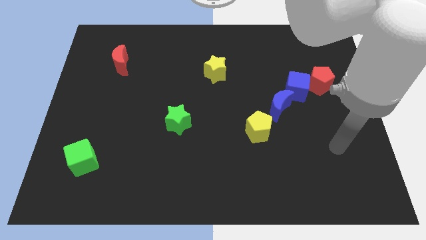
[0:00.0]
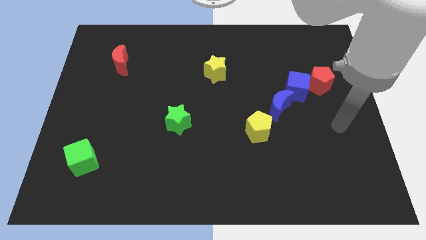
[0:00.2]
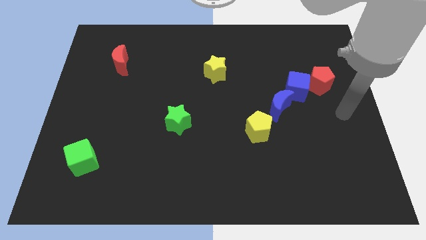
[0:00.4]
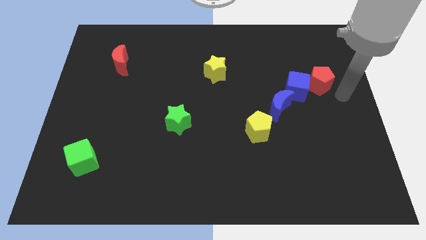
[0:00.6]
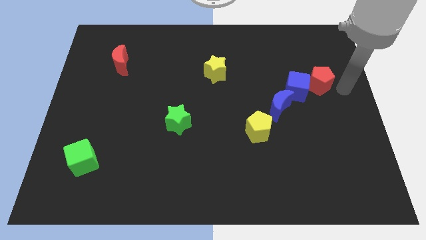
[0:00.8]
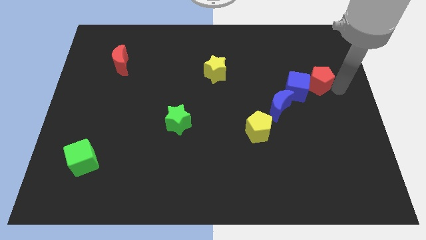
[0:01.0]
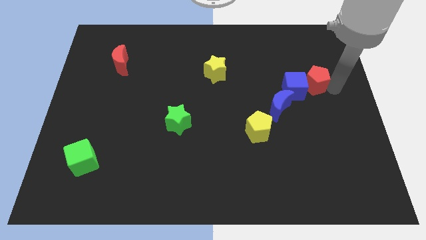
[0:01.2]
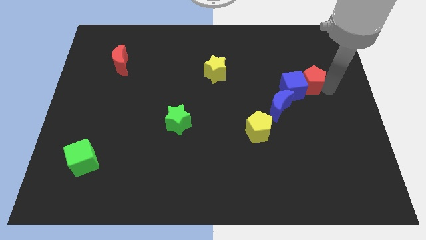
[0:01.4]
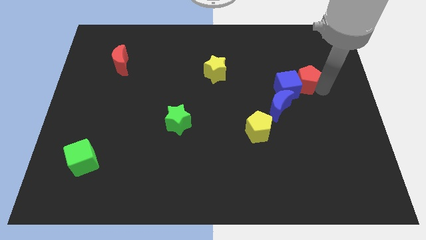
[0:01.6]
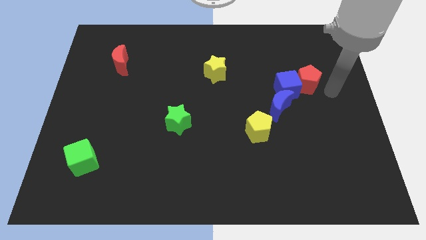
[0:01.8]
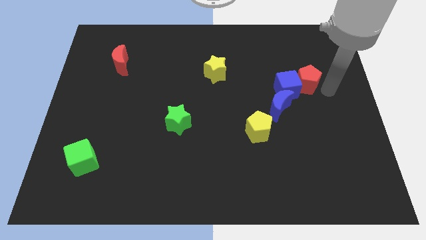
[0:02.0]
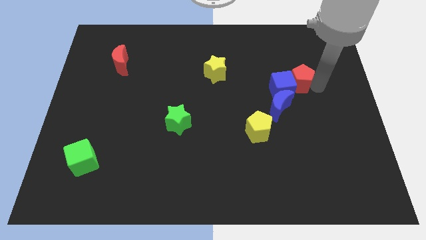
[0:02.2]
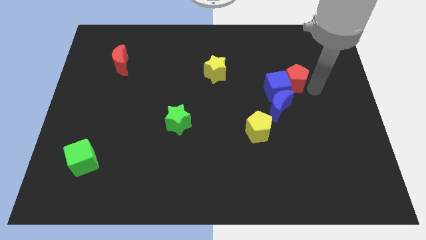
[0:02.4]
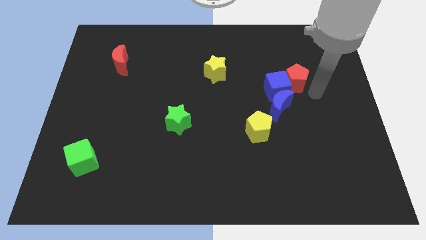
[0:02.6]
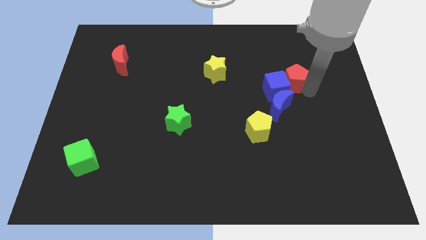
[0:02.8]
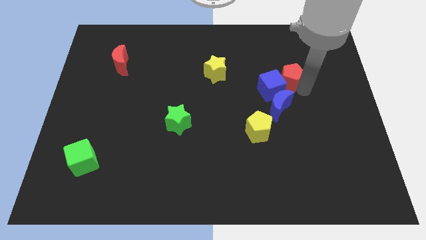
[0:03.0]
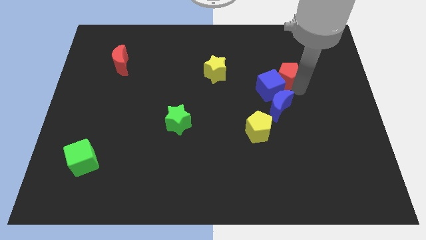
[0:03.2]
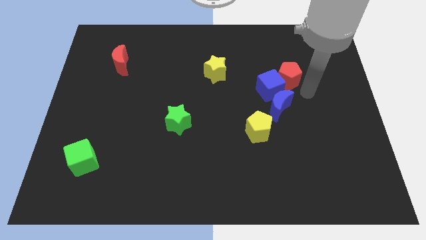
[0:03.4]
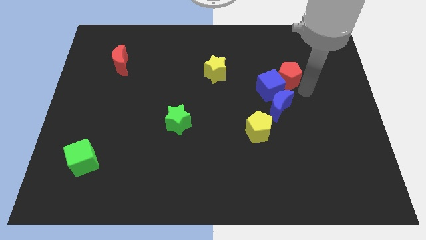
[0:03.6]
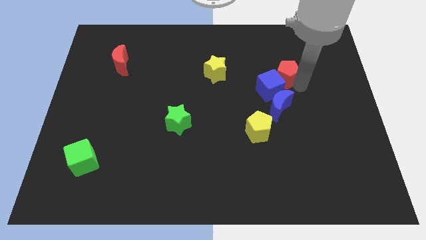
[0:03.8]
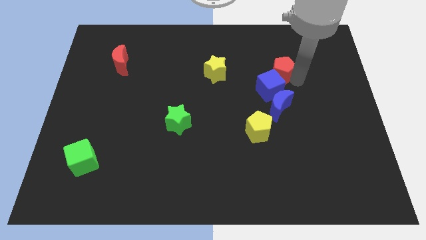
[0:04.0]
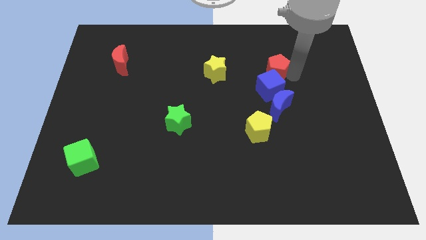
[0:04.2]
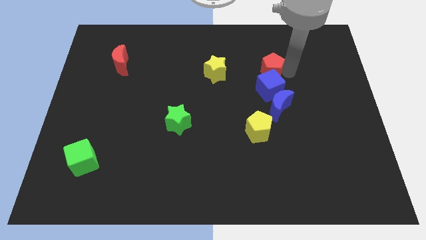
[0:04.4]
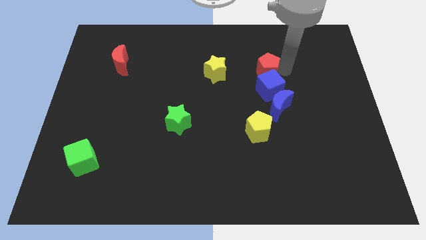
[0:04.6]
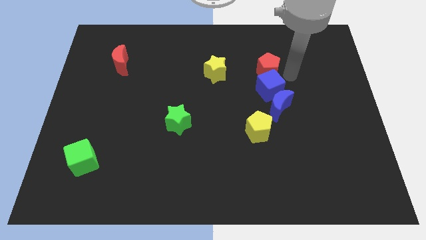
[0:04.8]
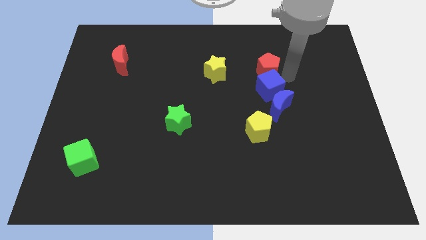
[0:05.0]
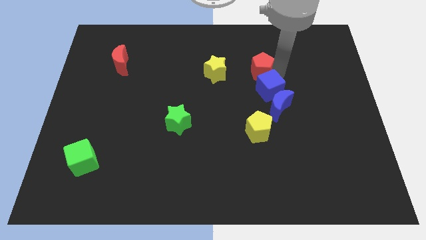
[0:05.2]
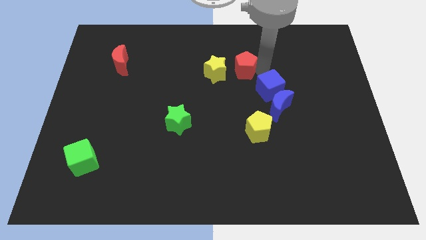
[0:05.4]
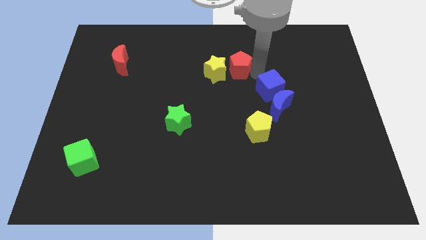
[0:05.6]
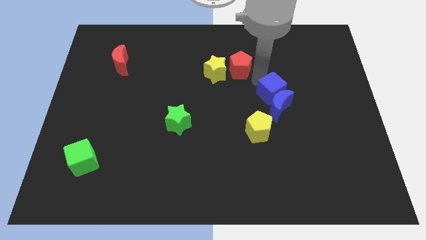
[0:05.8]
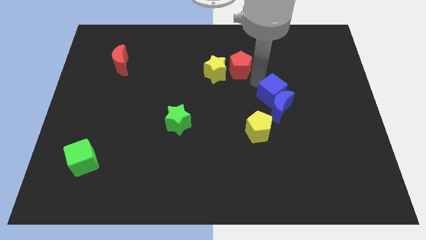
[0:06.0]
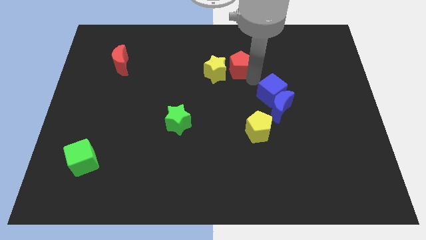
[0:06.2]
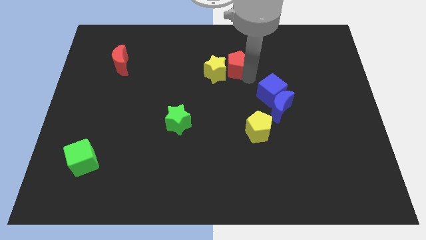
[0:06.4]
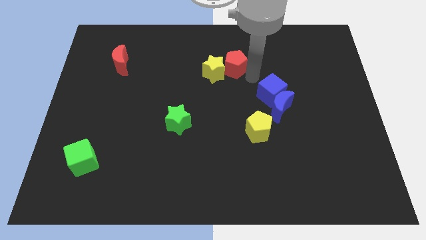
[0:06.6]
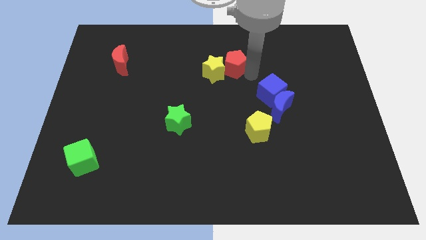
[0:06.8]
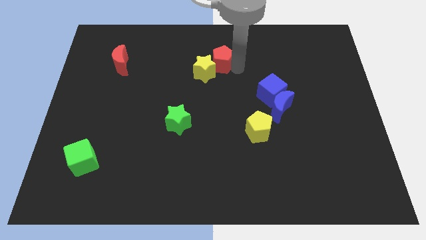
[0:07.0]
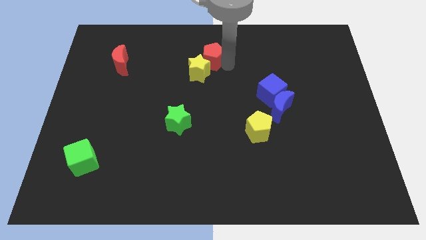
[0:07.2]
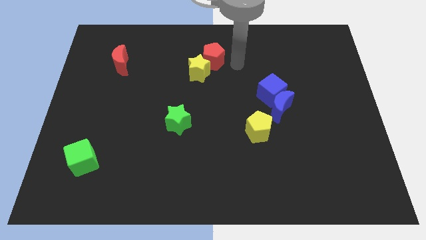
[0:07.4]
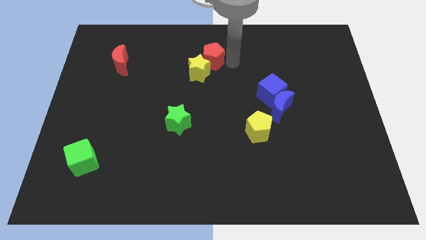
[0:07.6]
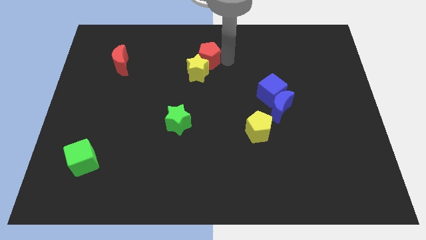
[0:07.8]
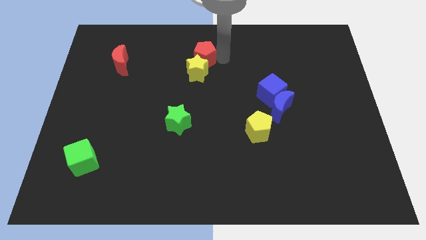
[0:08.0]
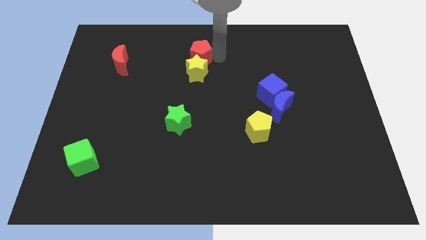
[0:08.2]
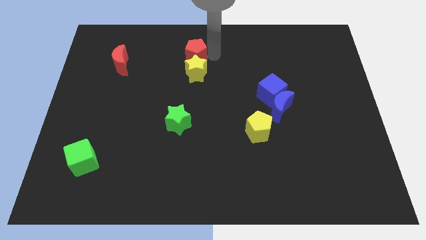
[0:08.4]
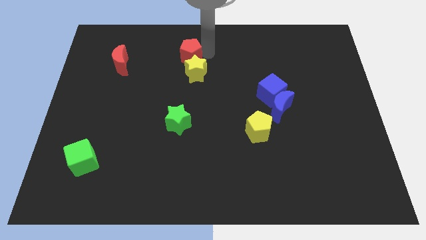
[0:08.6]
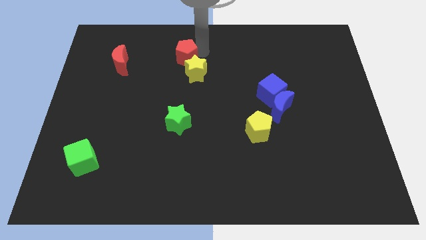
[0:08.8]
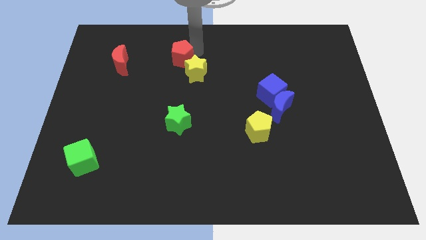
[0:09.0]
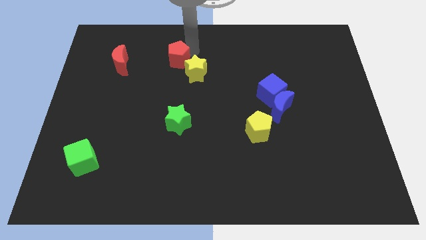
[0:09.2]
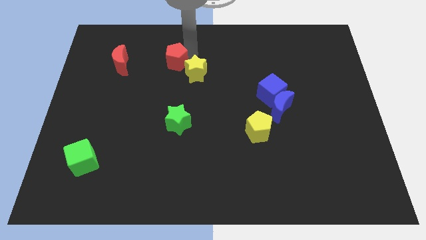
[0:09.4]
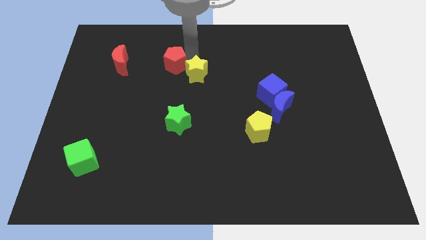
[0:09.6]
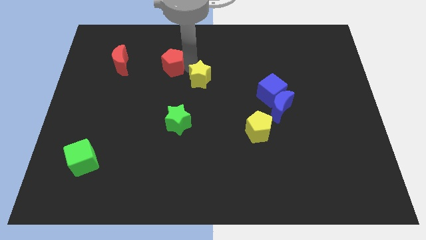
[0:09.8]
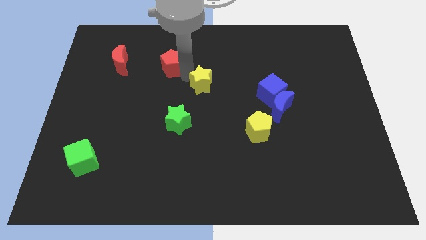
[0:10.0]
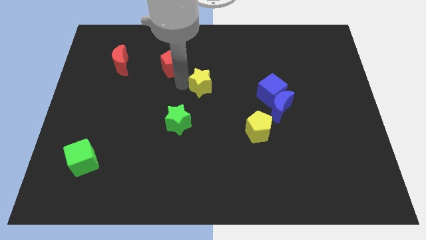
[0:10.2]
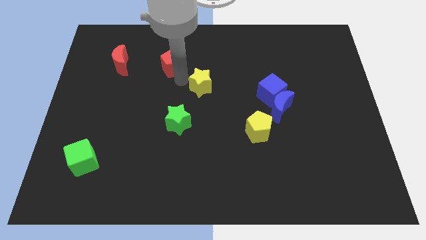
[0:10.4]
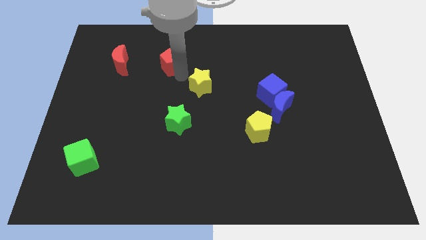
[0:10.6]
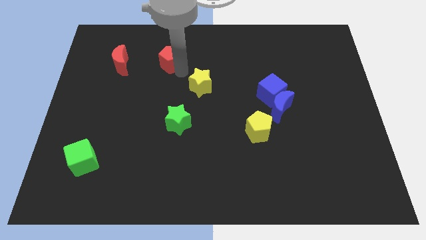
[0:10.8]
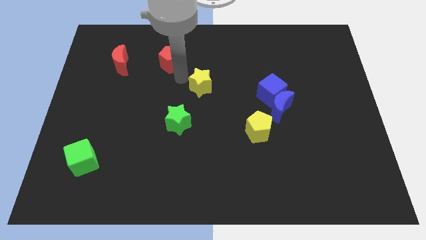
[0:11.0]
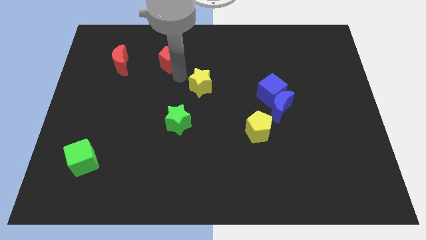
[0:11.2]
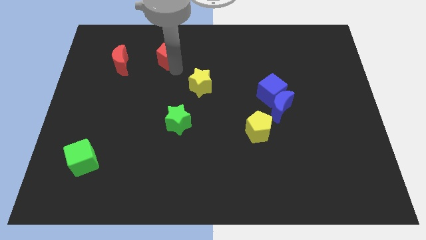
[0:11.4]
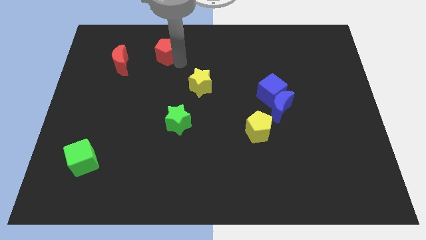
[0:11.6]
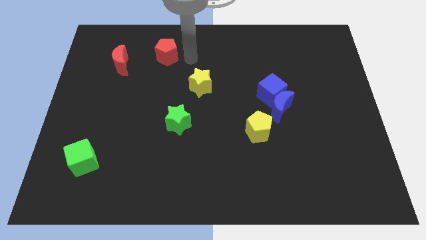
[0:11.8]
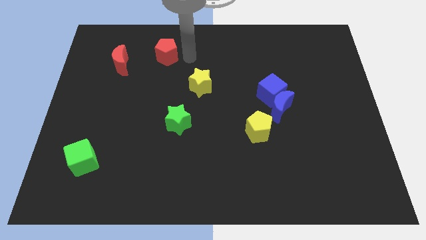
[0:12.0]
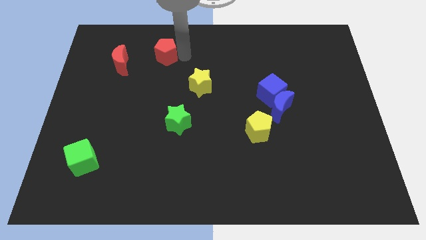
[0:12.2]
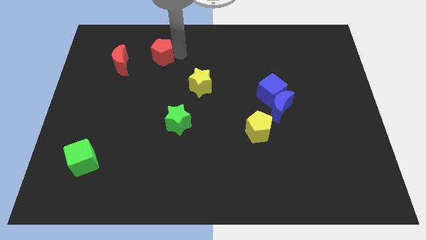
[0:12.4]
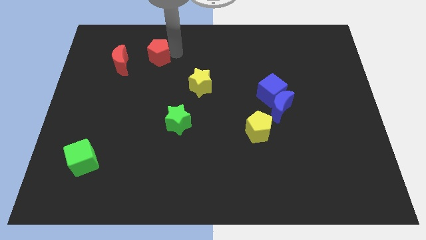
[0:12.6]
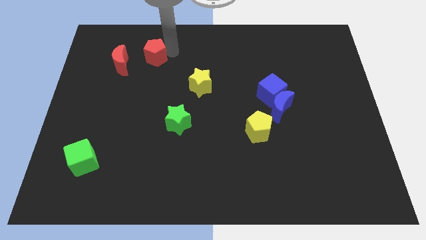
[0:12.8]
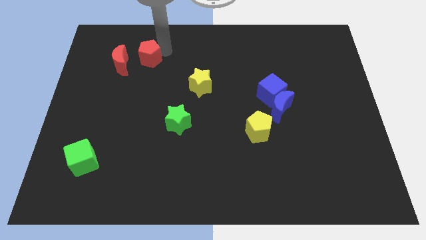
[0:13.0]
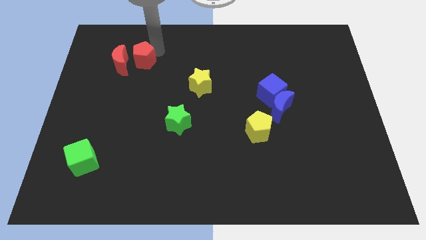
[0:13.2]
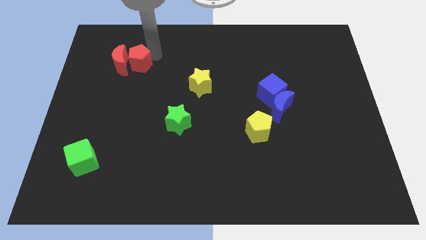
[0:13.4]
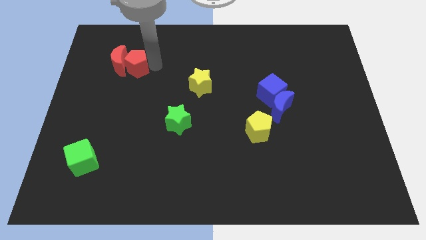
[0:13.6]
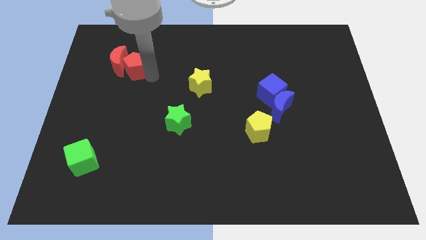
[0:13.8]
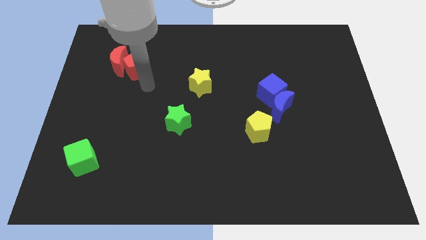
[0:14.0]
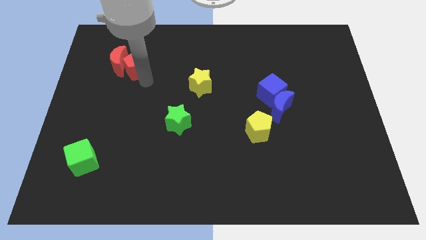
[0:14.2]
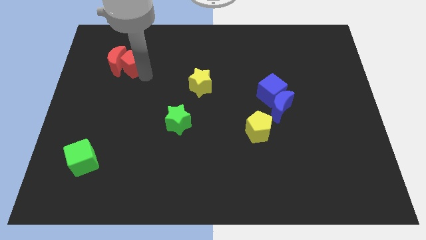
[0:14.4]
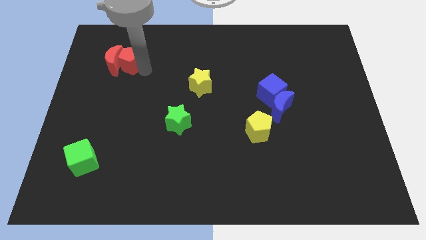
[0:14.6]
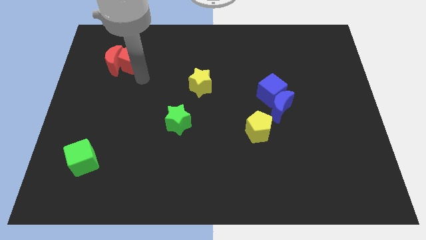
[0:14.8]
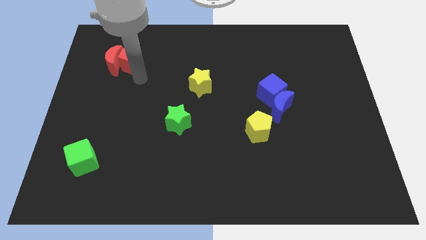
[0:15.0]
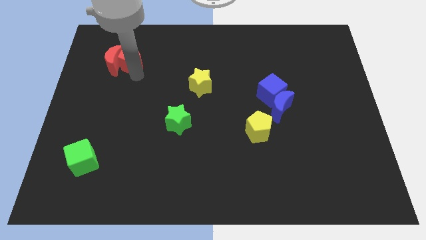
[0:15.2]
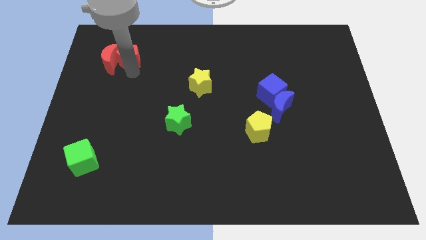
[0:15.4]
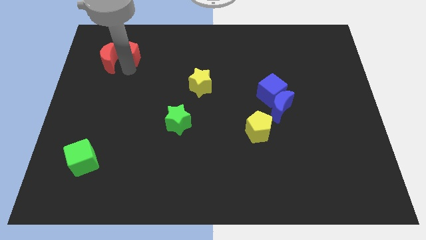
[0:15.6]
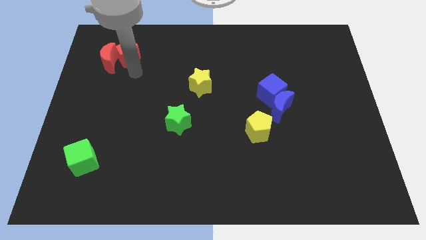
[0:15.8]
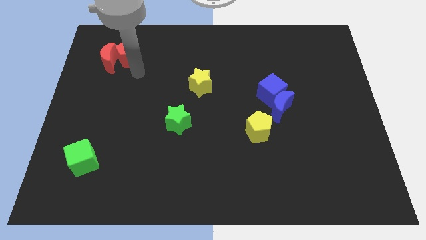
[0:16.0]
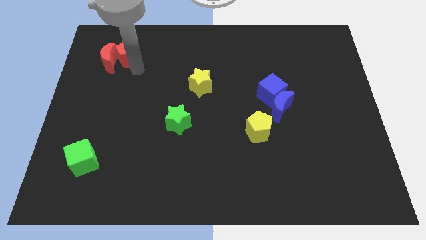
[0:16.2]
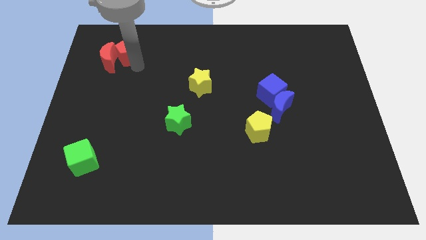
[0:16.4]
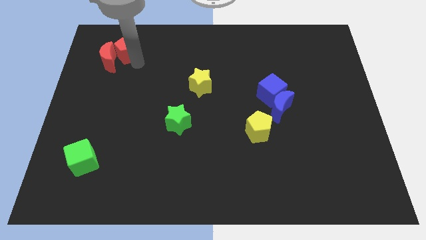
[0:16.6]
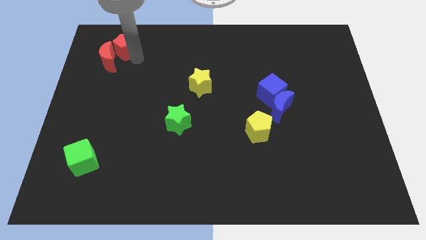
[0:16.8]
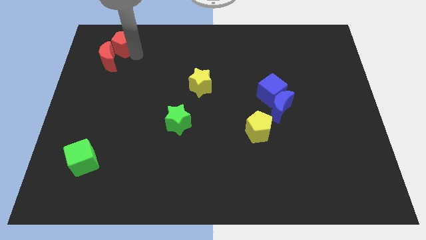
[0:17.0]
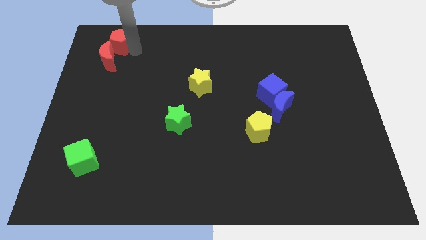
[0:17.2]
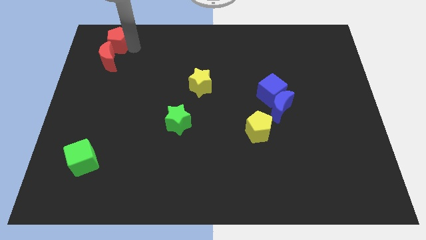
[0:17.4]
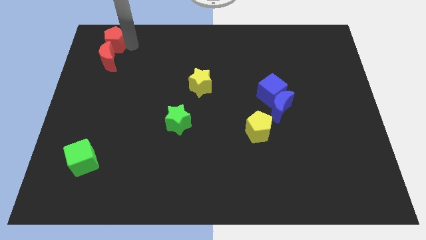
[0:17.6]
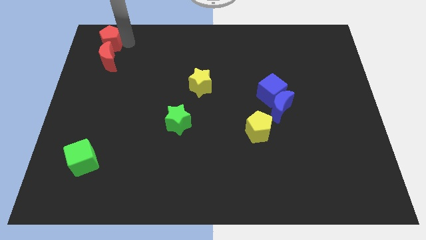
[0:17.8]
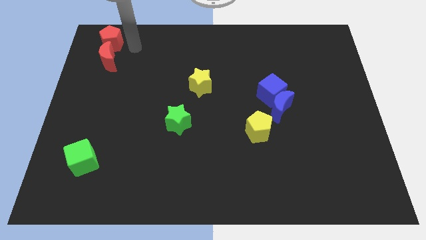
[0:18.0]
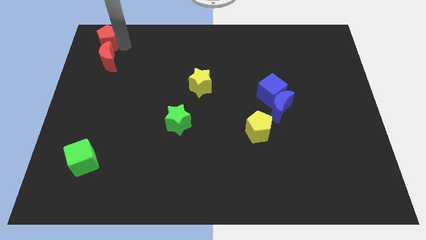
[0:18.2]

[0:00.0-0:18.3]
put the red pentagon to the top left corner
